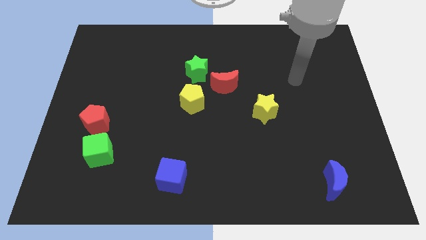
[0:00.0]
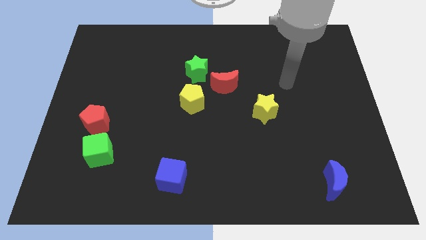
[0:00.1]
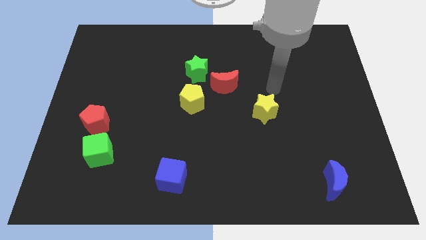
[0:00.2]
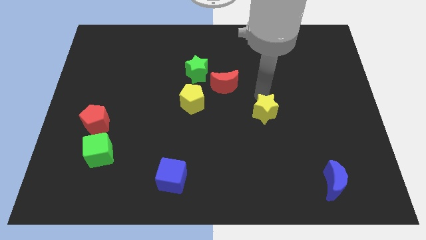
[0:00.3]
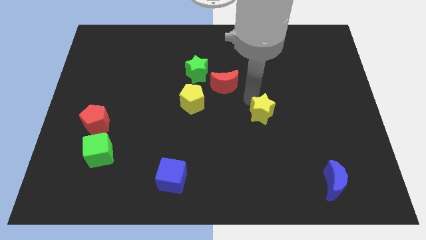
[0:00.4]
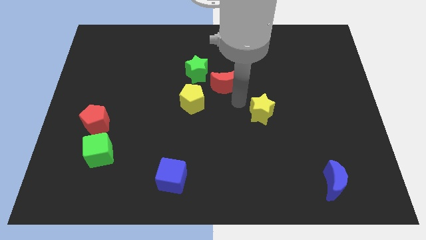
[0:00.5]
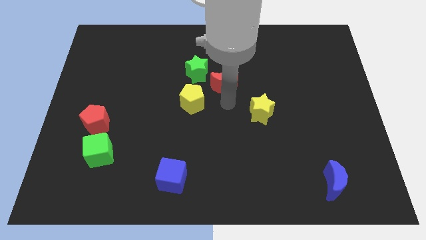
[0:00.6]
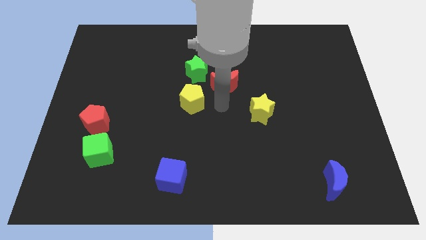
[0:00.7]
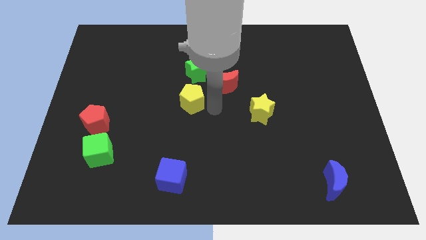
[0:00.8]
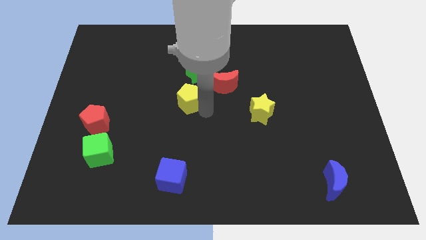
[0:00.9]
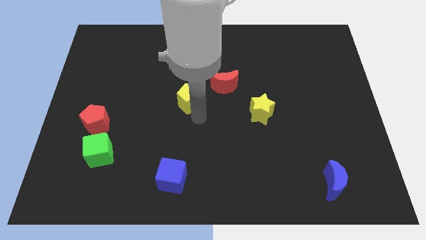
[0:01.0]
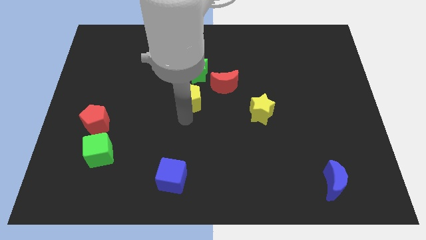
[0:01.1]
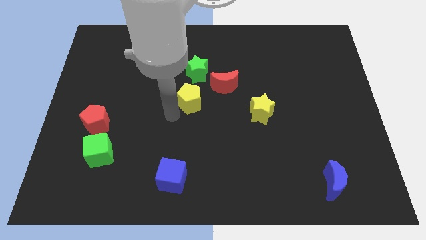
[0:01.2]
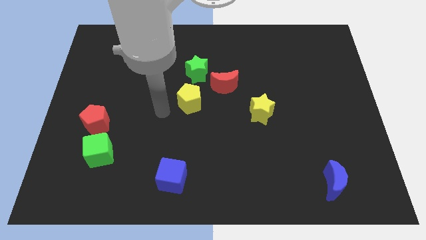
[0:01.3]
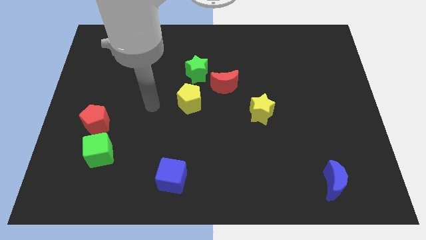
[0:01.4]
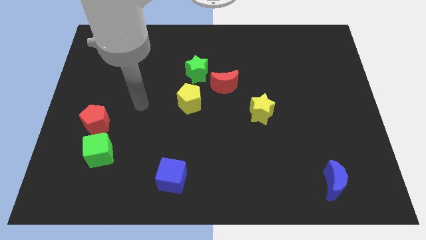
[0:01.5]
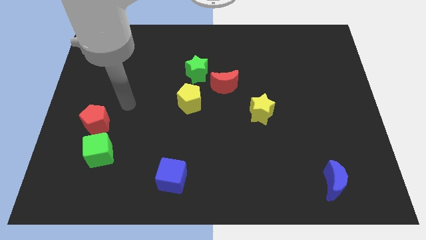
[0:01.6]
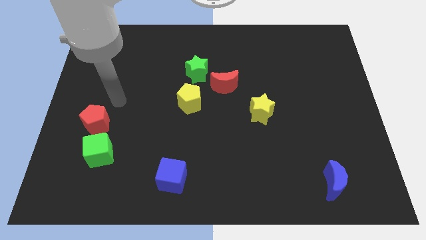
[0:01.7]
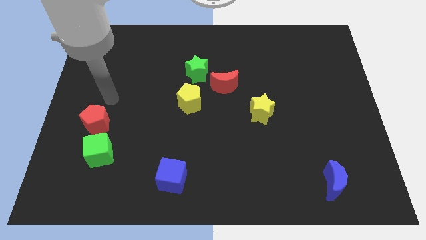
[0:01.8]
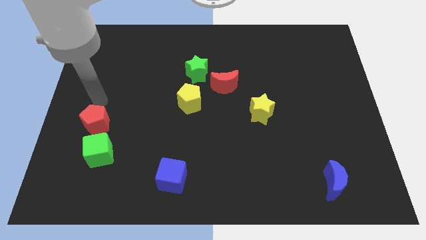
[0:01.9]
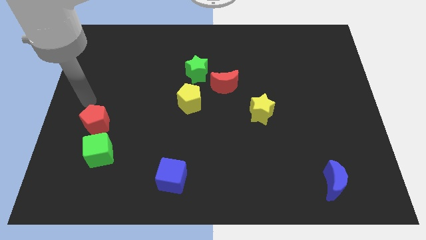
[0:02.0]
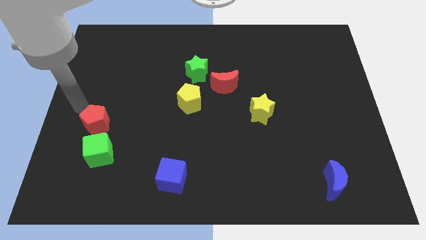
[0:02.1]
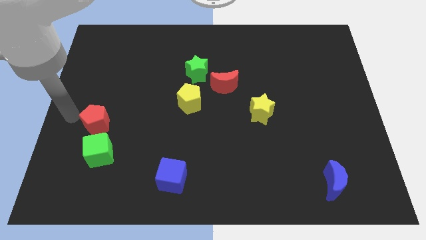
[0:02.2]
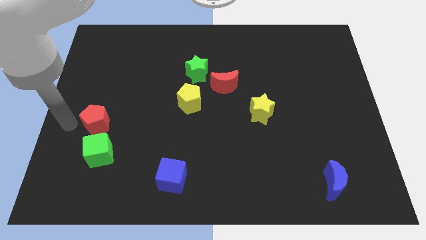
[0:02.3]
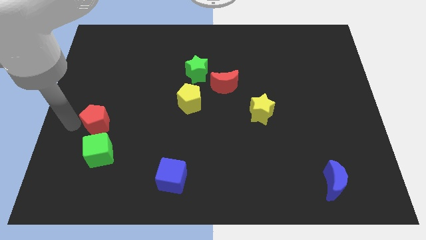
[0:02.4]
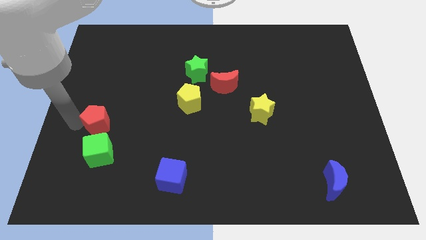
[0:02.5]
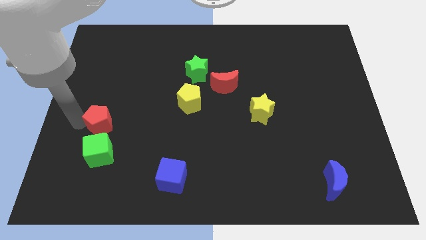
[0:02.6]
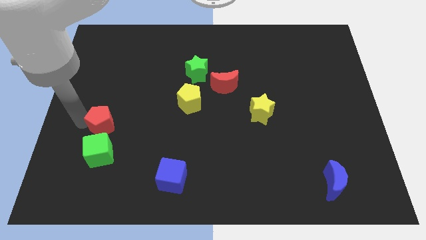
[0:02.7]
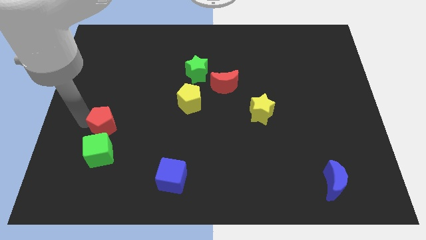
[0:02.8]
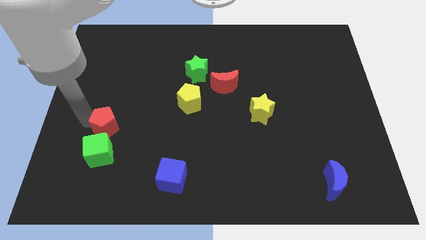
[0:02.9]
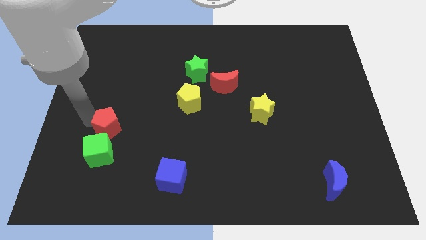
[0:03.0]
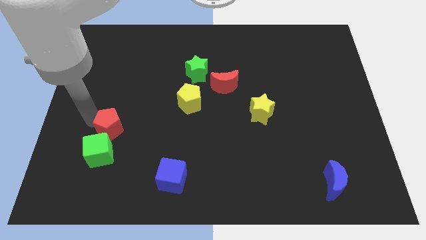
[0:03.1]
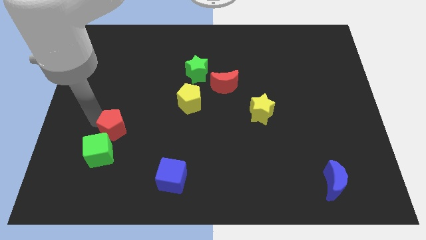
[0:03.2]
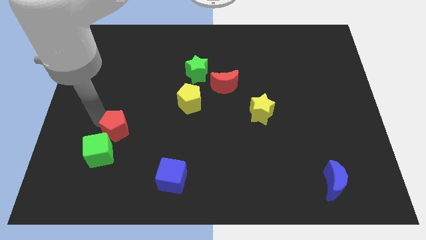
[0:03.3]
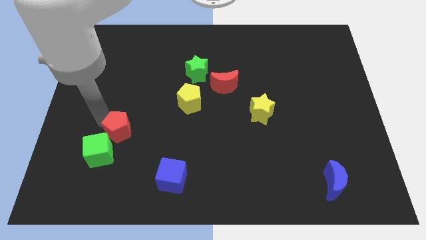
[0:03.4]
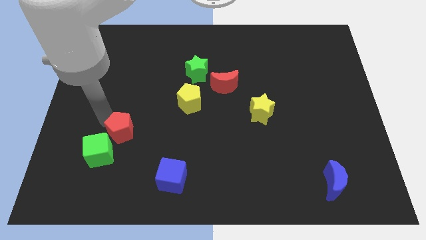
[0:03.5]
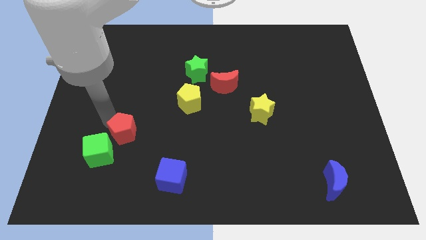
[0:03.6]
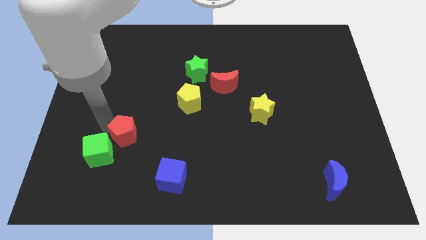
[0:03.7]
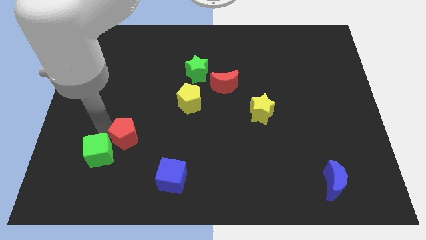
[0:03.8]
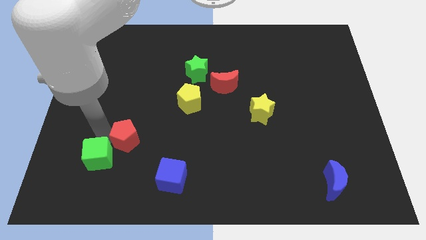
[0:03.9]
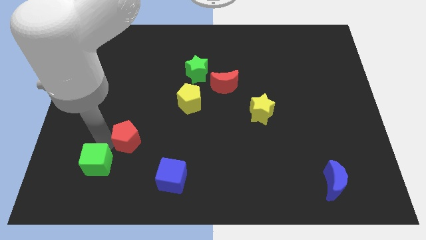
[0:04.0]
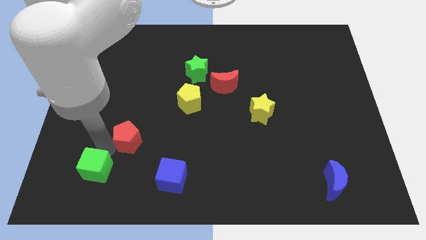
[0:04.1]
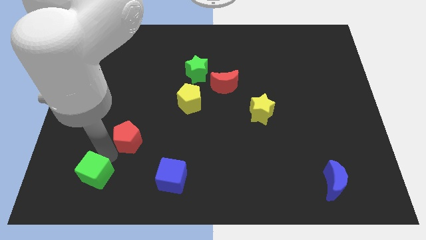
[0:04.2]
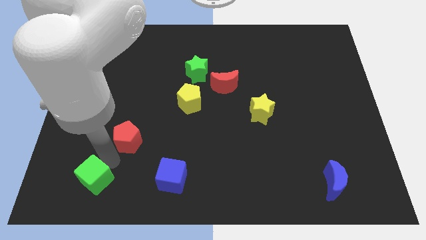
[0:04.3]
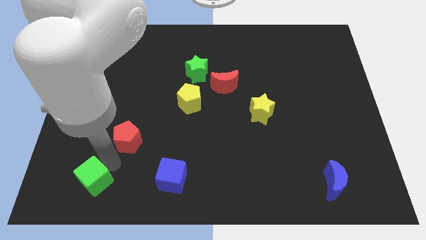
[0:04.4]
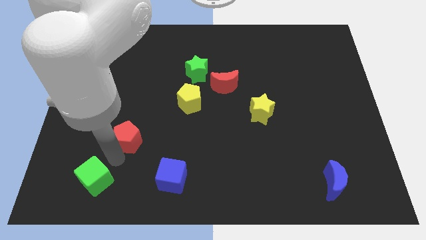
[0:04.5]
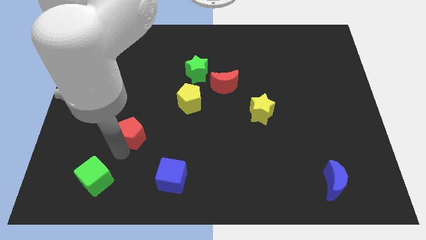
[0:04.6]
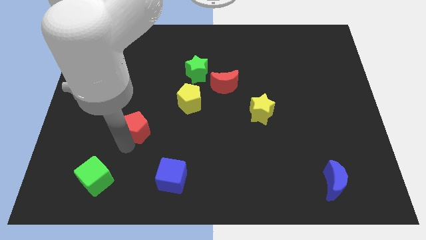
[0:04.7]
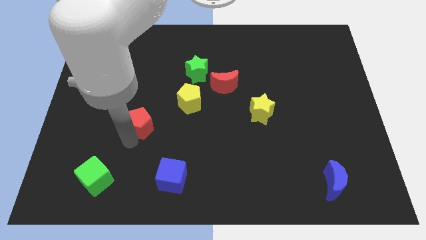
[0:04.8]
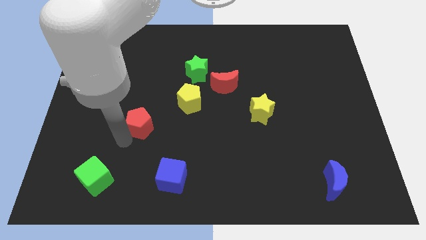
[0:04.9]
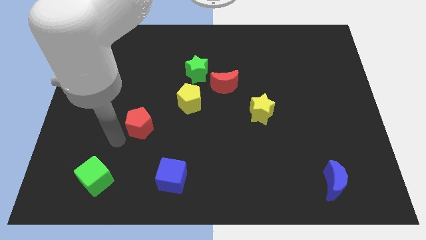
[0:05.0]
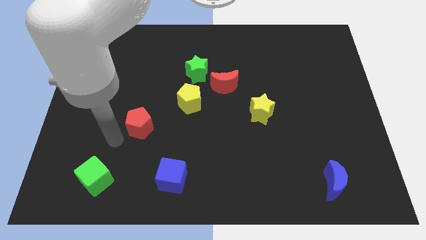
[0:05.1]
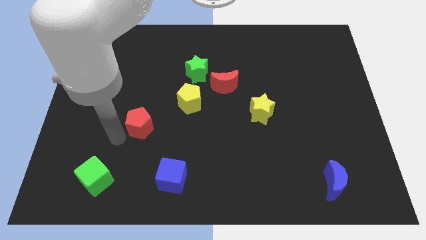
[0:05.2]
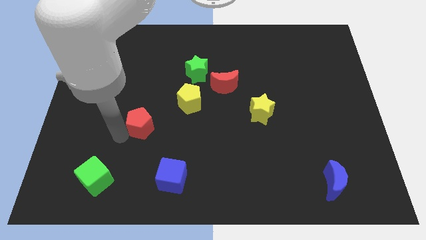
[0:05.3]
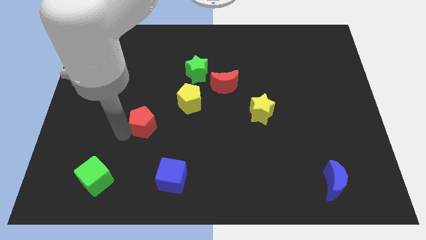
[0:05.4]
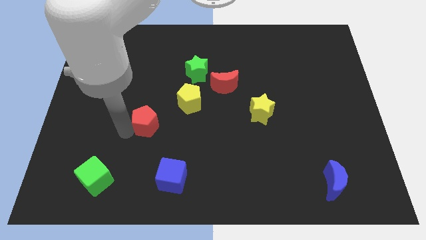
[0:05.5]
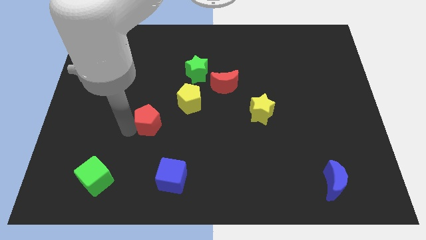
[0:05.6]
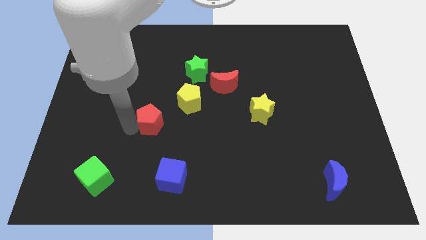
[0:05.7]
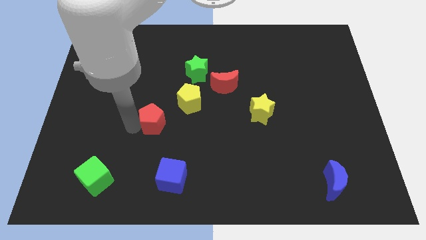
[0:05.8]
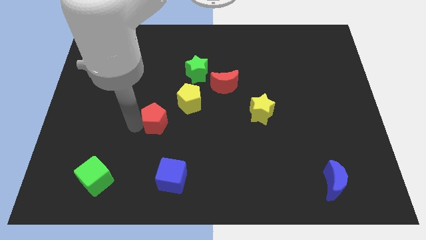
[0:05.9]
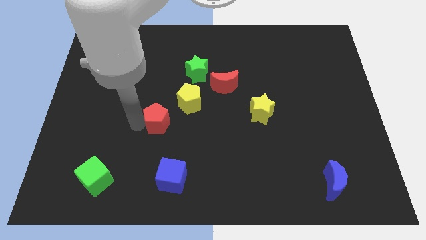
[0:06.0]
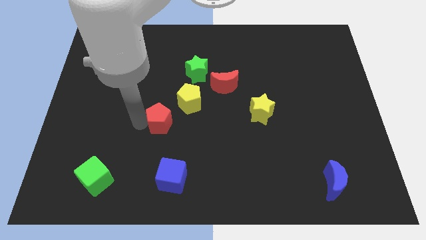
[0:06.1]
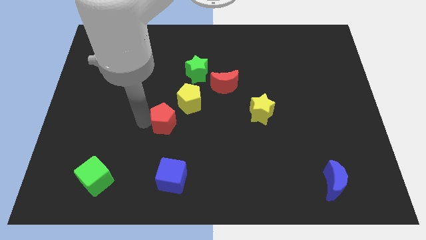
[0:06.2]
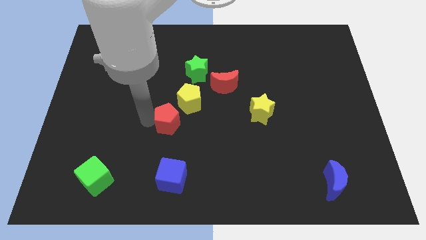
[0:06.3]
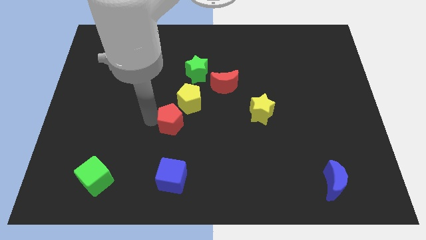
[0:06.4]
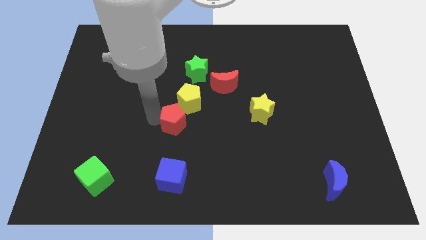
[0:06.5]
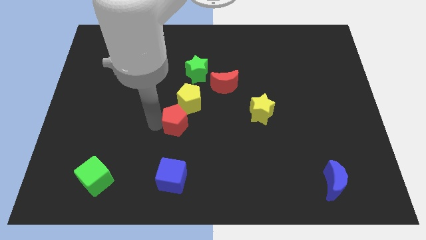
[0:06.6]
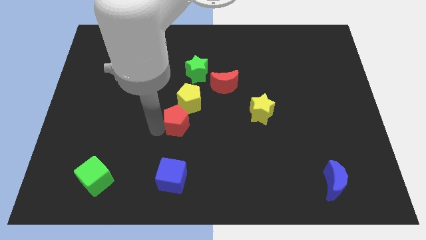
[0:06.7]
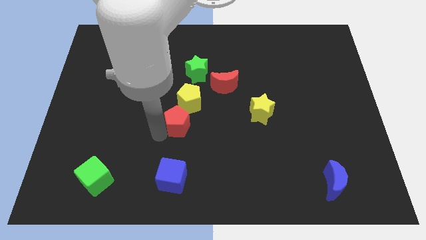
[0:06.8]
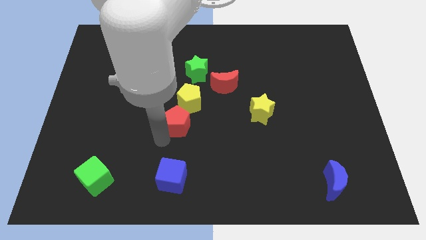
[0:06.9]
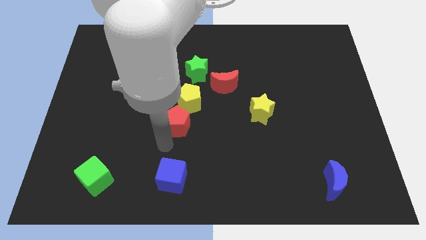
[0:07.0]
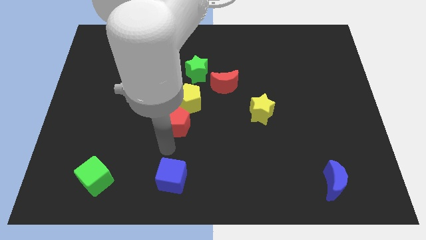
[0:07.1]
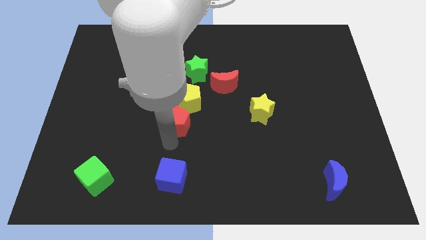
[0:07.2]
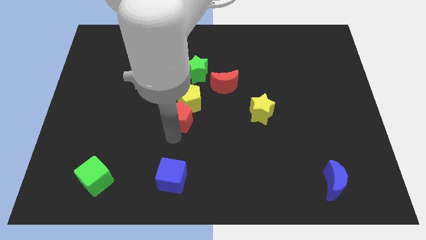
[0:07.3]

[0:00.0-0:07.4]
put the red pentagon to the yellow pentagon
